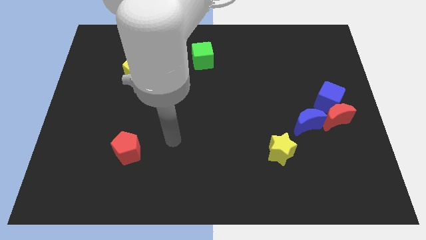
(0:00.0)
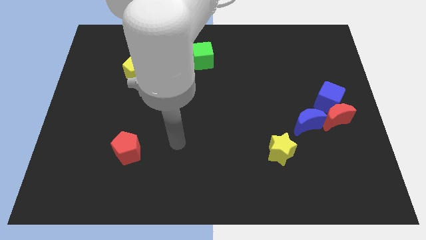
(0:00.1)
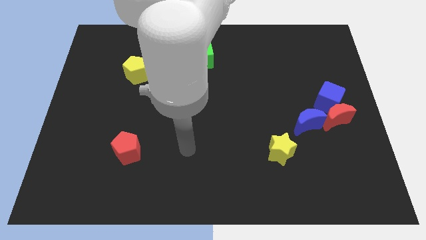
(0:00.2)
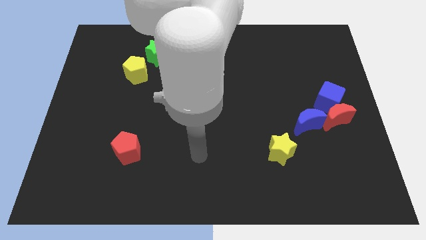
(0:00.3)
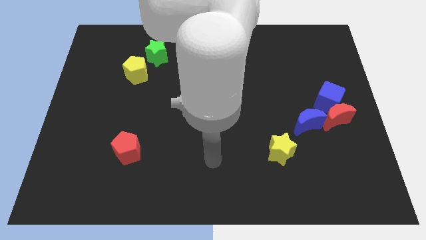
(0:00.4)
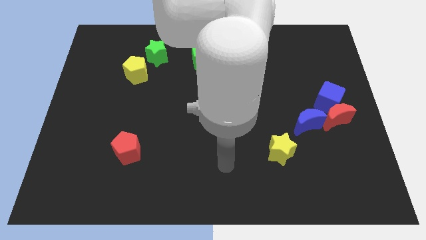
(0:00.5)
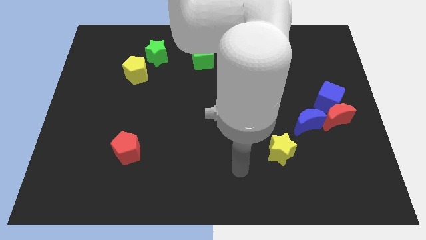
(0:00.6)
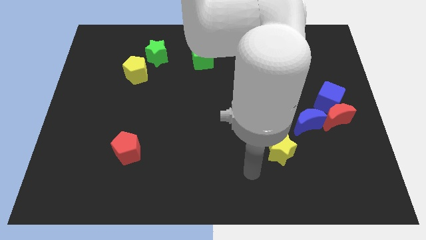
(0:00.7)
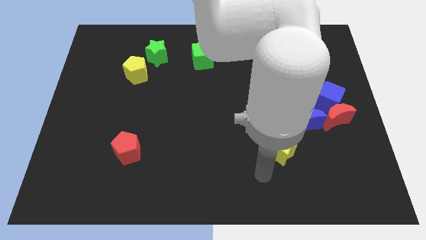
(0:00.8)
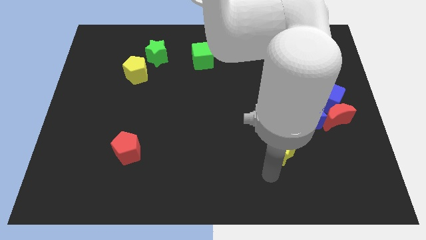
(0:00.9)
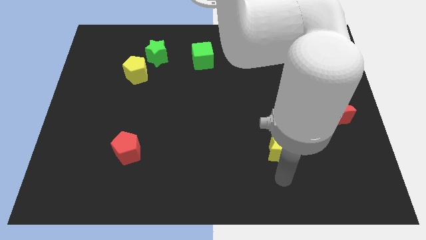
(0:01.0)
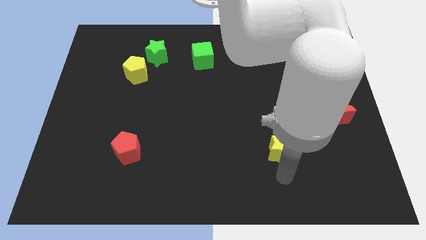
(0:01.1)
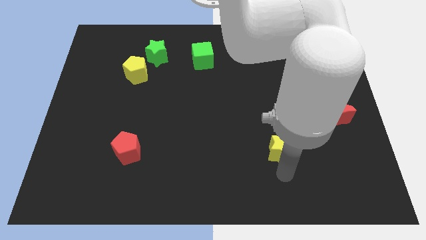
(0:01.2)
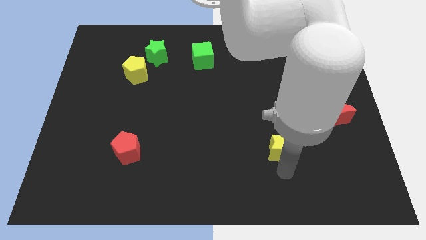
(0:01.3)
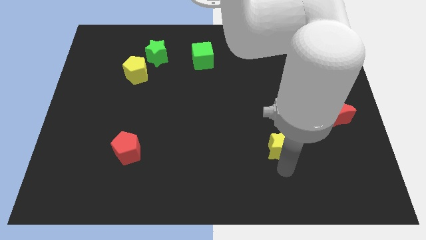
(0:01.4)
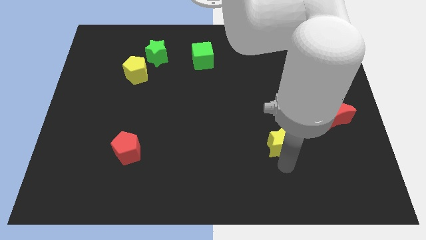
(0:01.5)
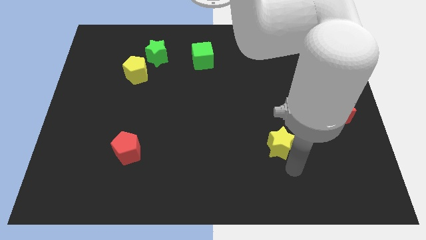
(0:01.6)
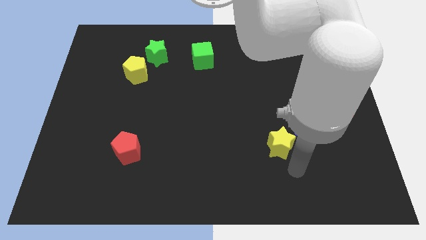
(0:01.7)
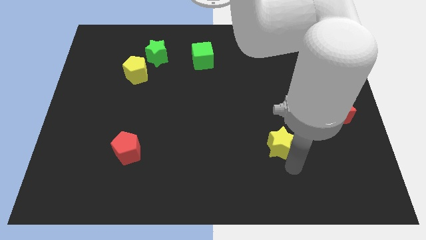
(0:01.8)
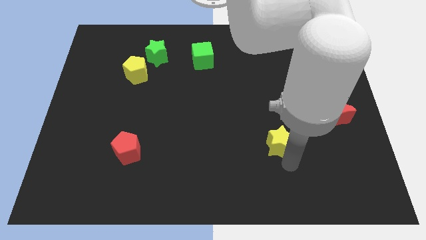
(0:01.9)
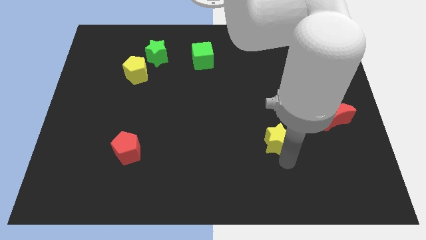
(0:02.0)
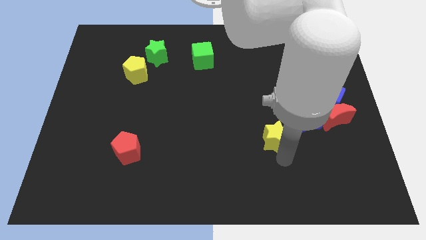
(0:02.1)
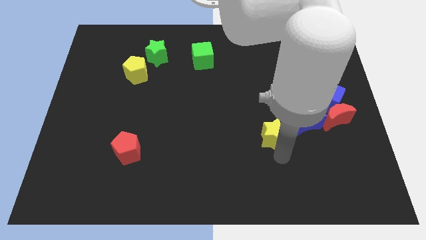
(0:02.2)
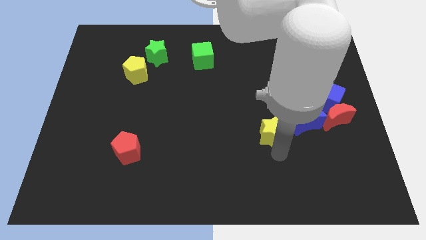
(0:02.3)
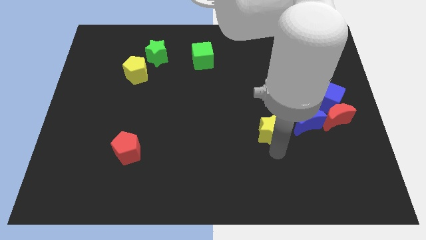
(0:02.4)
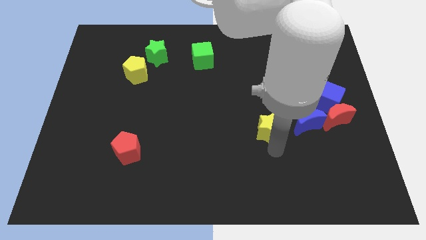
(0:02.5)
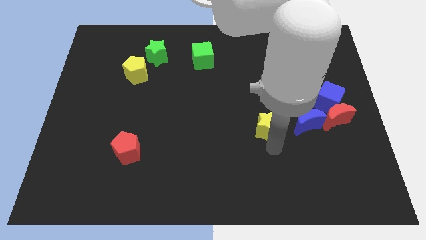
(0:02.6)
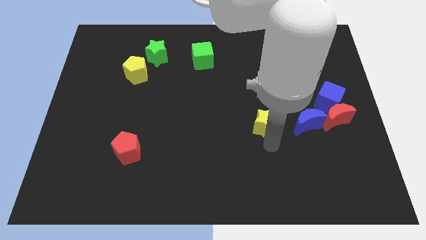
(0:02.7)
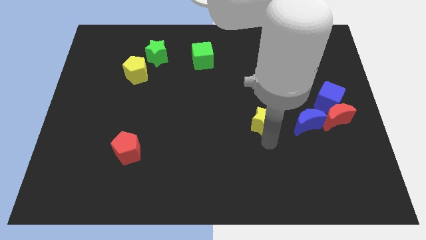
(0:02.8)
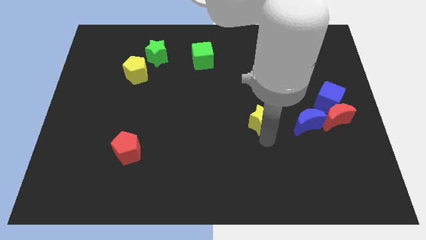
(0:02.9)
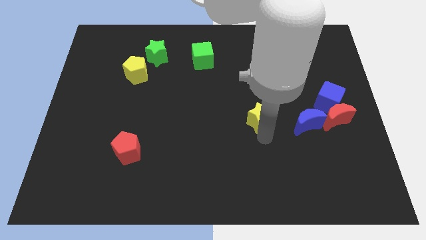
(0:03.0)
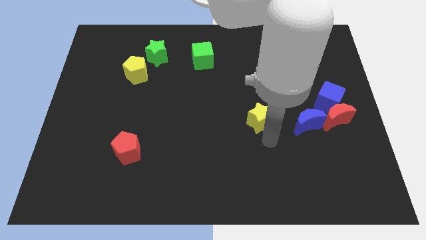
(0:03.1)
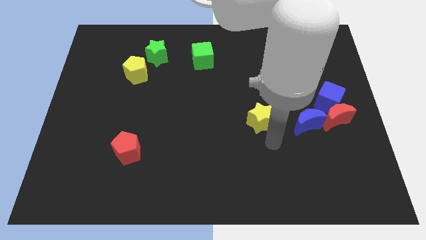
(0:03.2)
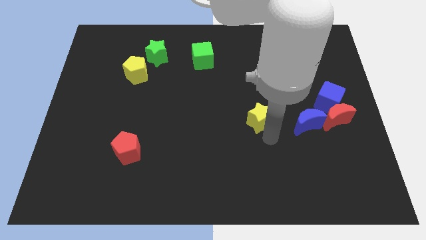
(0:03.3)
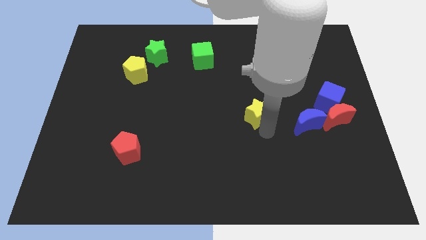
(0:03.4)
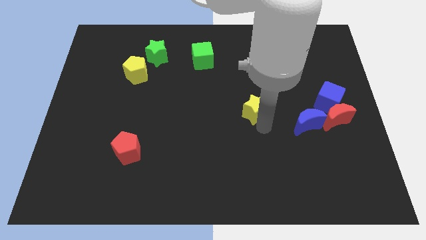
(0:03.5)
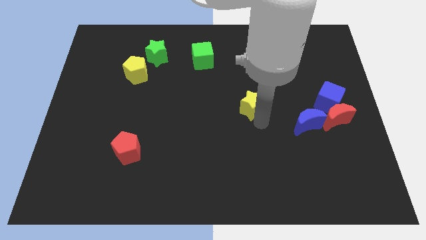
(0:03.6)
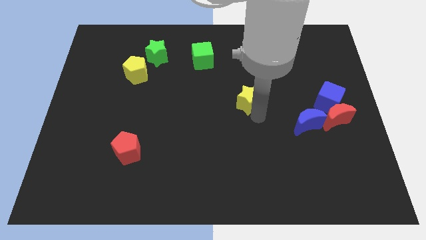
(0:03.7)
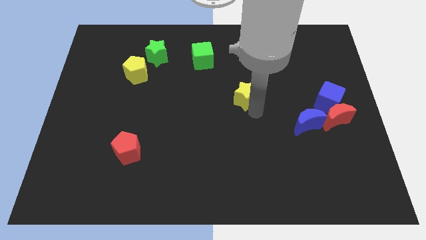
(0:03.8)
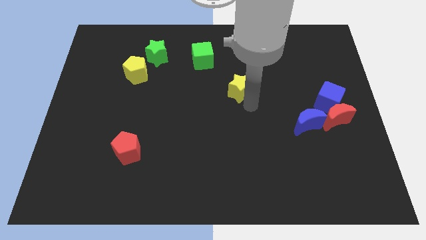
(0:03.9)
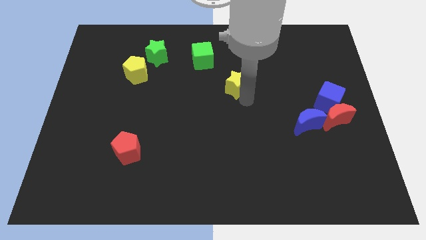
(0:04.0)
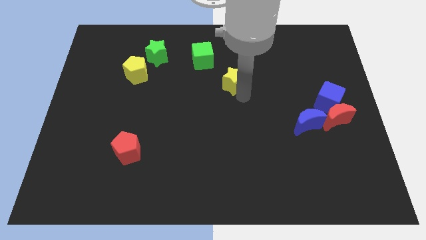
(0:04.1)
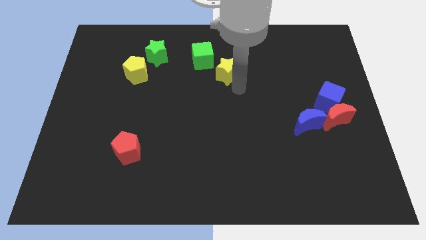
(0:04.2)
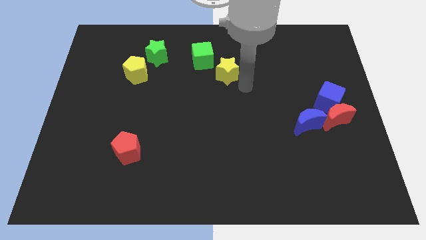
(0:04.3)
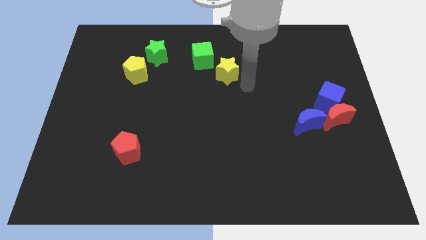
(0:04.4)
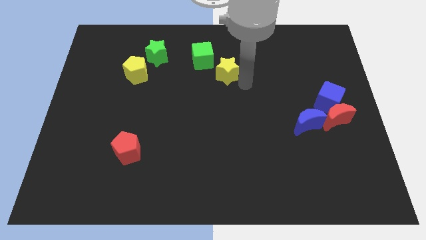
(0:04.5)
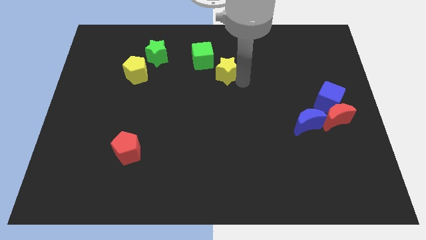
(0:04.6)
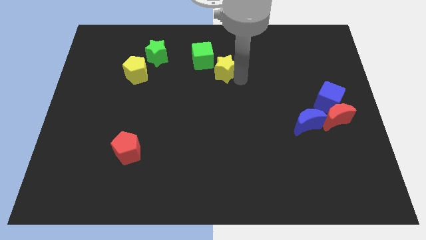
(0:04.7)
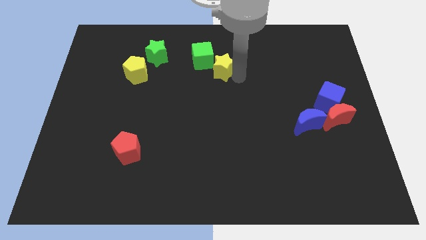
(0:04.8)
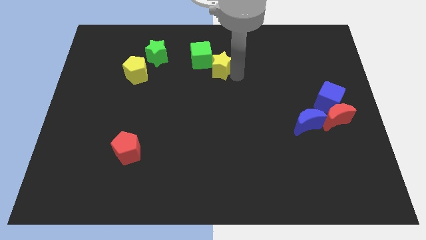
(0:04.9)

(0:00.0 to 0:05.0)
push the yellow star towards the green cube

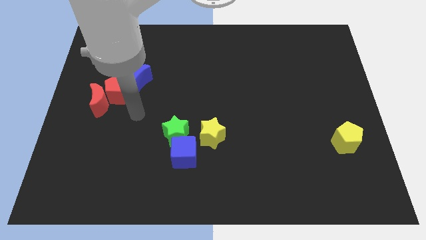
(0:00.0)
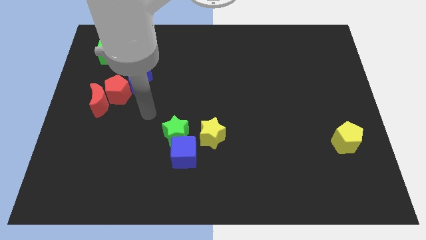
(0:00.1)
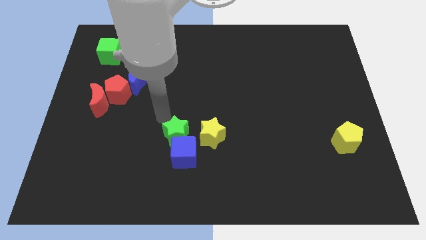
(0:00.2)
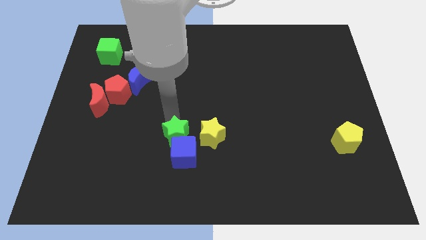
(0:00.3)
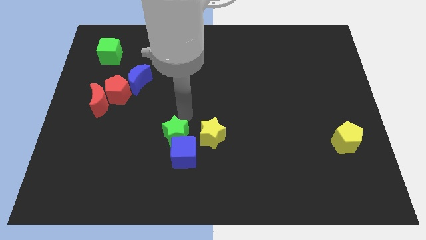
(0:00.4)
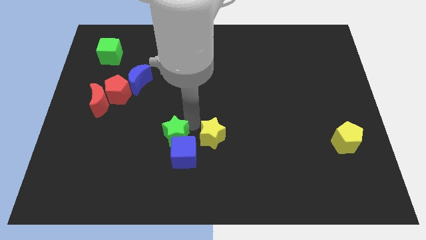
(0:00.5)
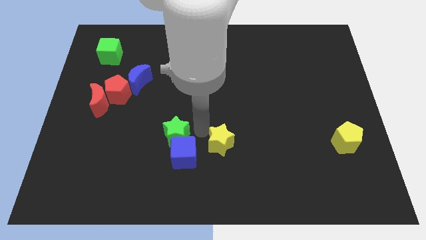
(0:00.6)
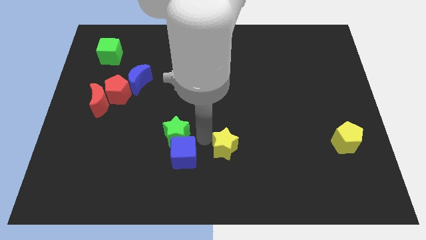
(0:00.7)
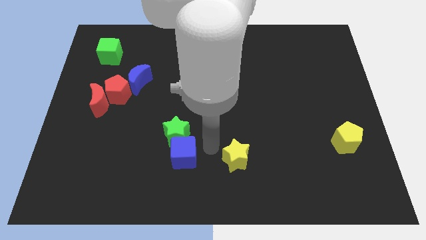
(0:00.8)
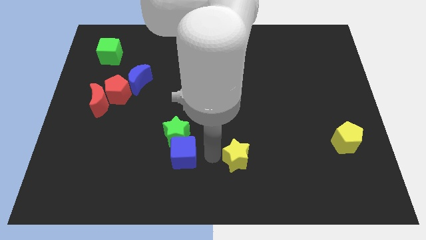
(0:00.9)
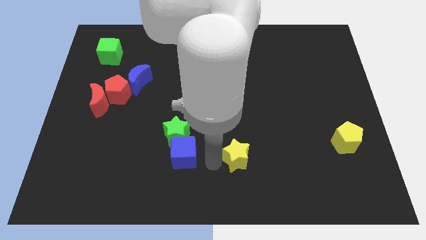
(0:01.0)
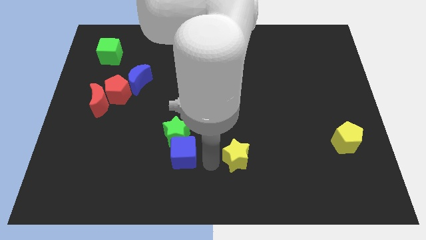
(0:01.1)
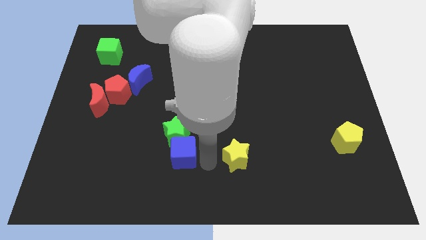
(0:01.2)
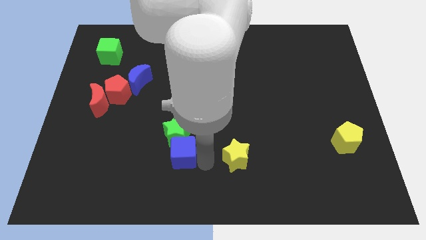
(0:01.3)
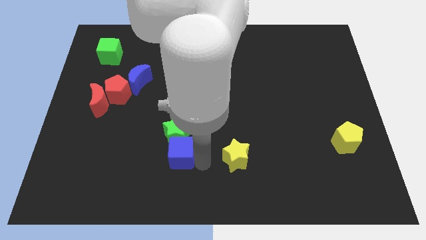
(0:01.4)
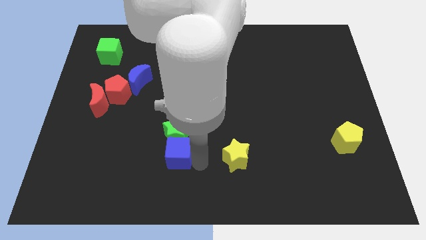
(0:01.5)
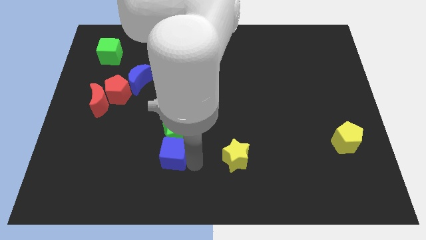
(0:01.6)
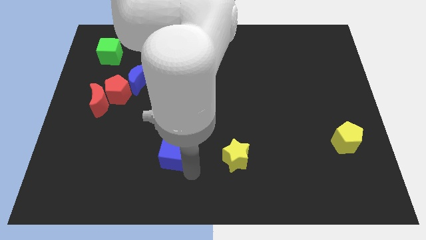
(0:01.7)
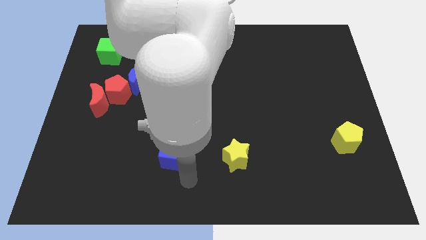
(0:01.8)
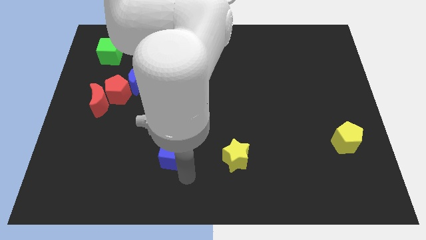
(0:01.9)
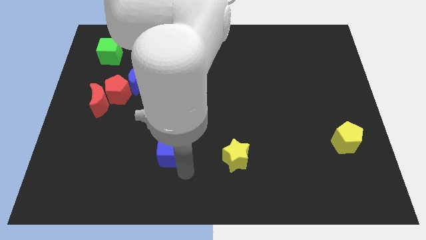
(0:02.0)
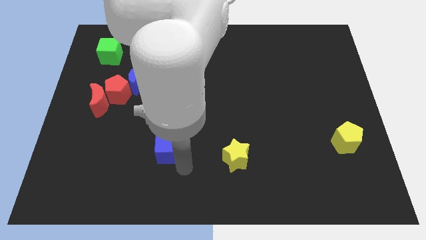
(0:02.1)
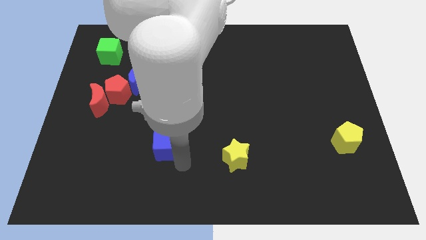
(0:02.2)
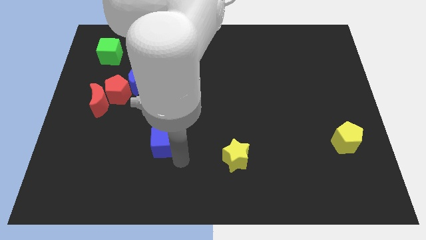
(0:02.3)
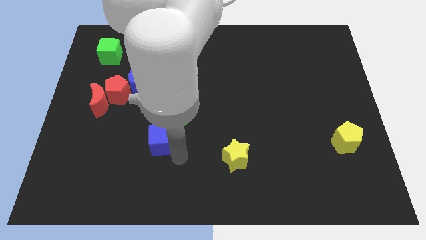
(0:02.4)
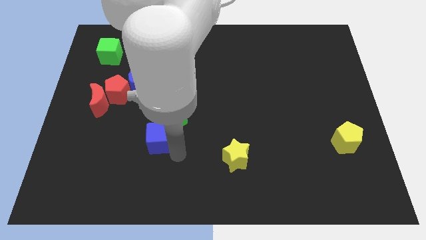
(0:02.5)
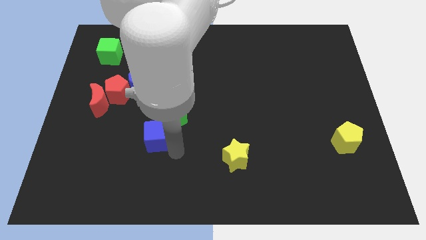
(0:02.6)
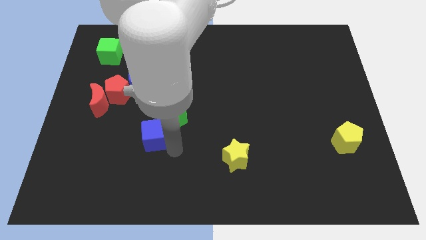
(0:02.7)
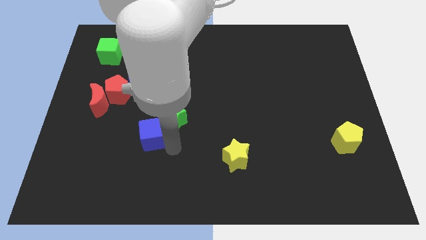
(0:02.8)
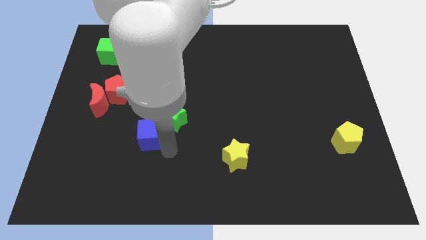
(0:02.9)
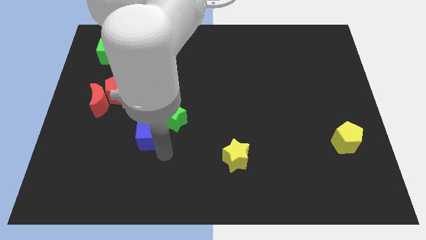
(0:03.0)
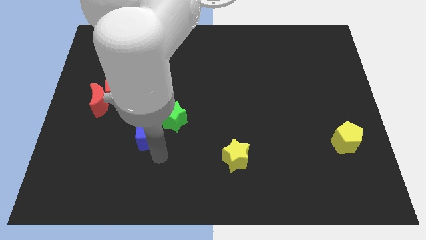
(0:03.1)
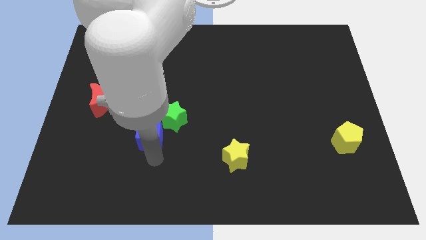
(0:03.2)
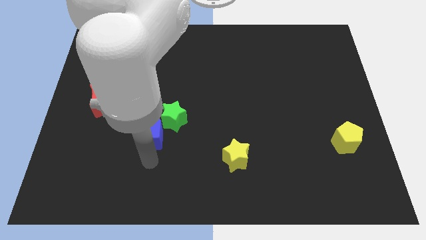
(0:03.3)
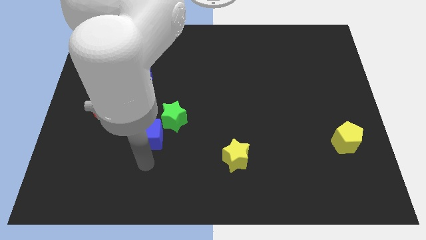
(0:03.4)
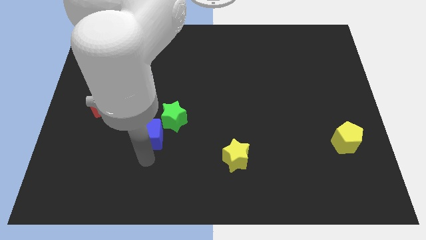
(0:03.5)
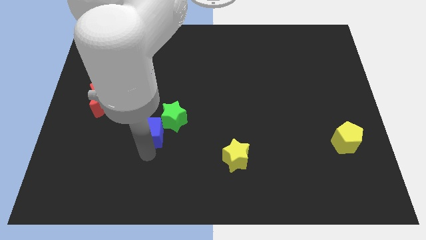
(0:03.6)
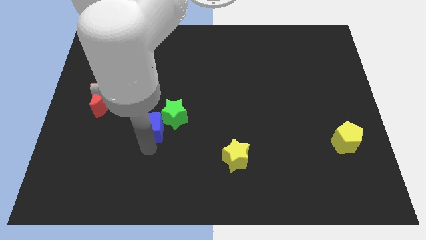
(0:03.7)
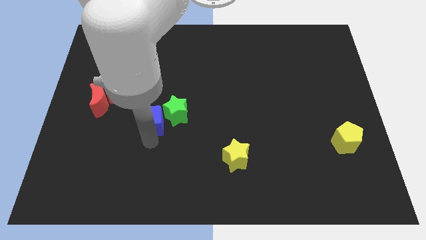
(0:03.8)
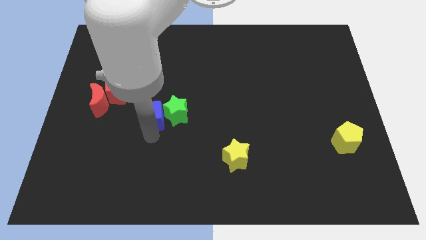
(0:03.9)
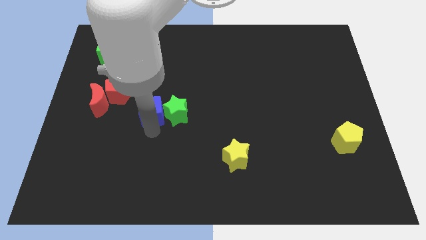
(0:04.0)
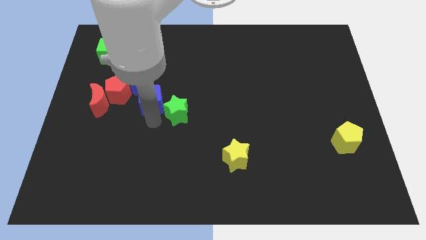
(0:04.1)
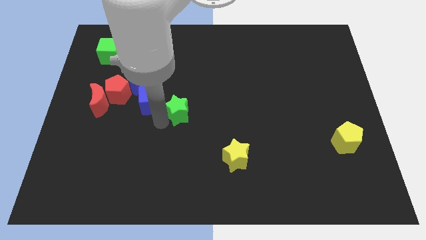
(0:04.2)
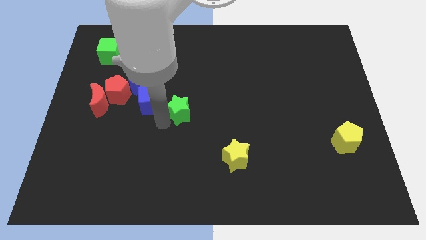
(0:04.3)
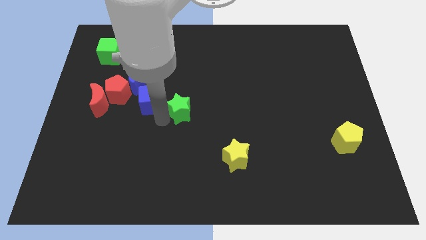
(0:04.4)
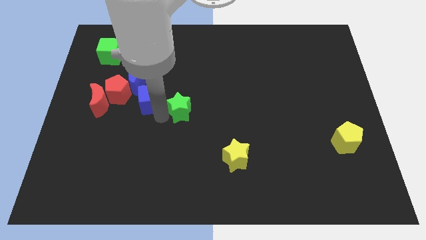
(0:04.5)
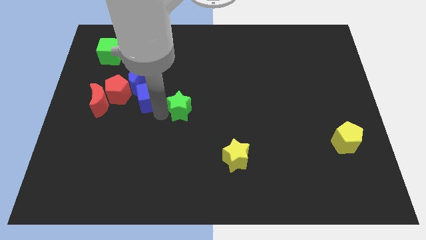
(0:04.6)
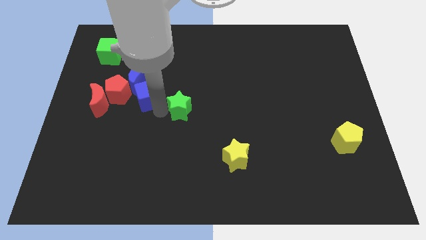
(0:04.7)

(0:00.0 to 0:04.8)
put the blue cube close to the blue moon
